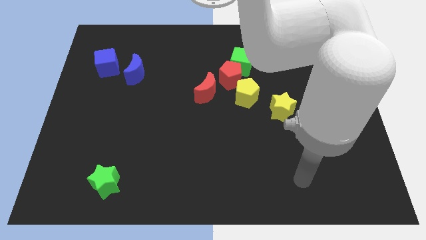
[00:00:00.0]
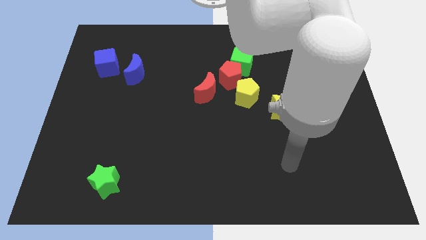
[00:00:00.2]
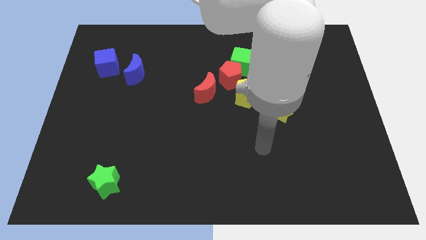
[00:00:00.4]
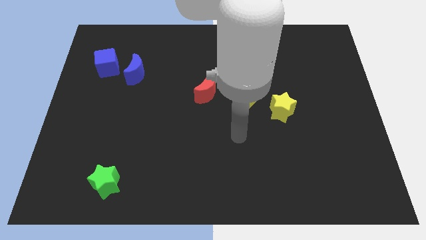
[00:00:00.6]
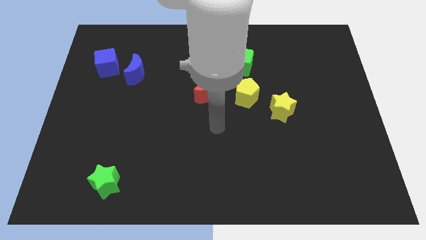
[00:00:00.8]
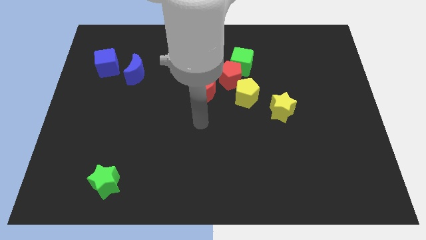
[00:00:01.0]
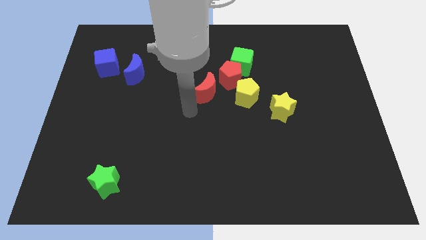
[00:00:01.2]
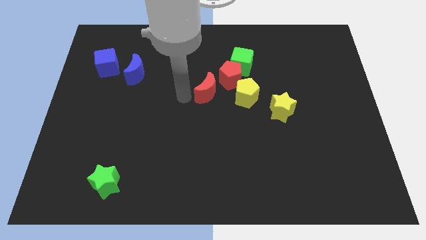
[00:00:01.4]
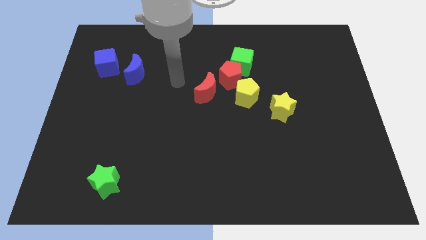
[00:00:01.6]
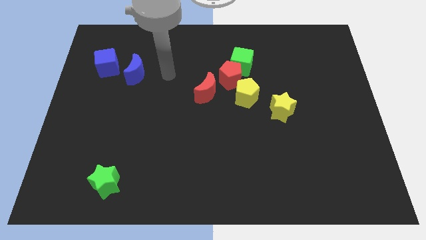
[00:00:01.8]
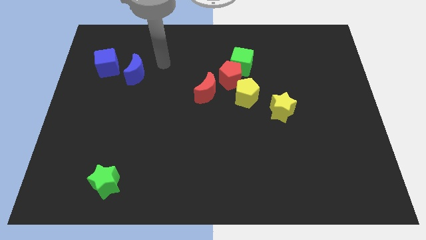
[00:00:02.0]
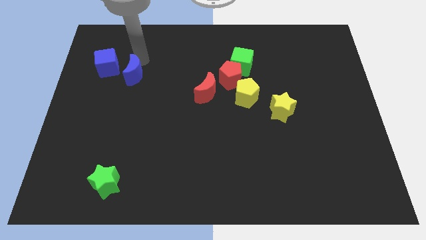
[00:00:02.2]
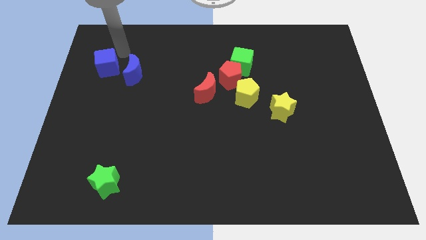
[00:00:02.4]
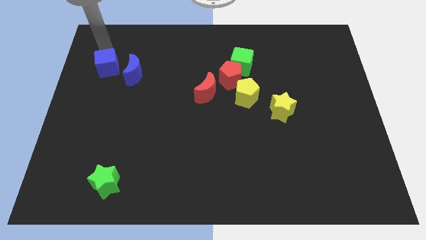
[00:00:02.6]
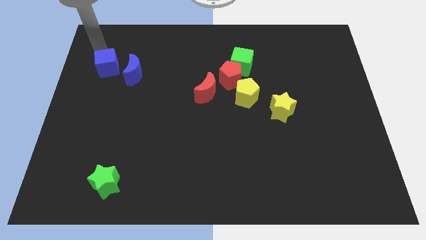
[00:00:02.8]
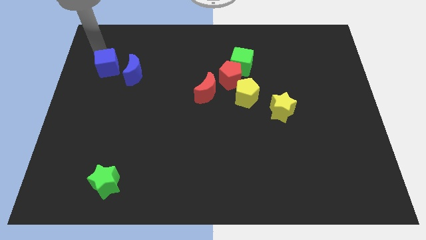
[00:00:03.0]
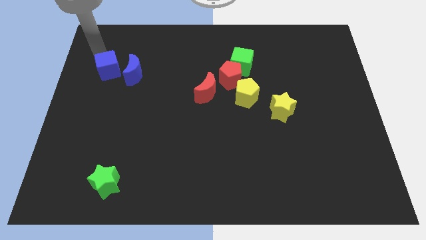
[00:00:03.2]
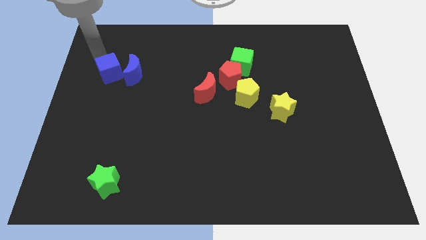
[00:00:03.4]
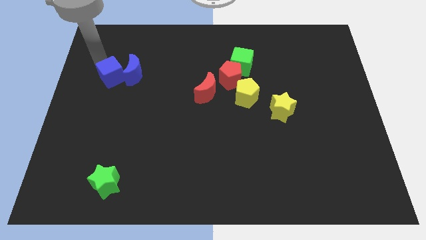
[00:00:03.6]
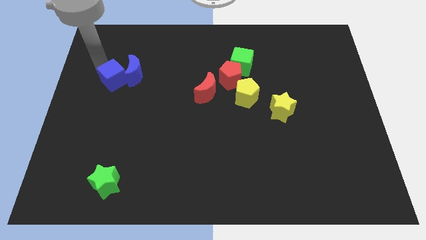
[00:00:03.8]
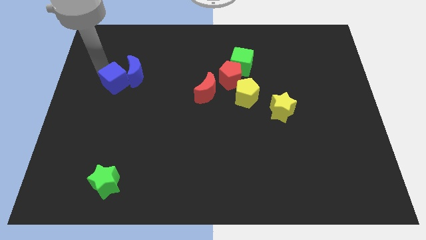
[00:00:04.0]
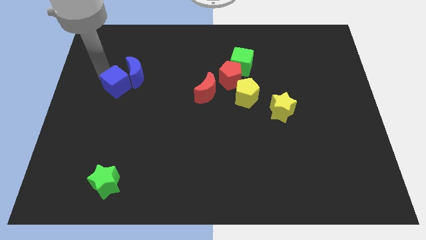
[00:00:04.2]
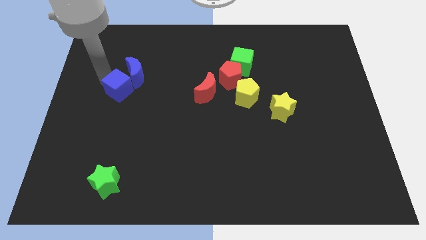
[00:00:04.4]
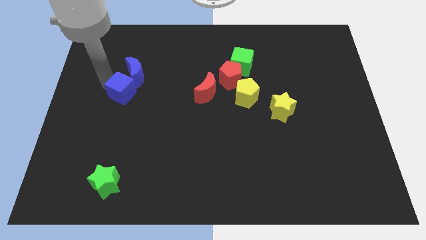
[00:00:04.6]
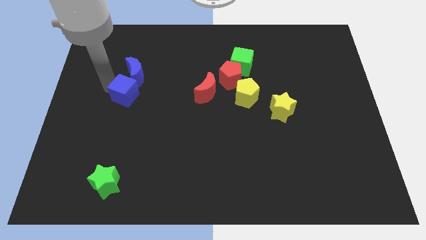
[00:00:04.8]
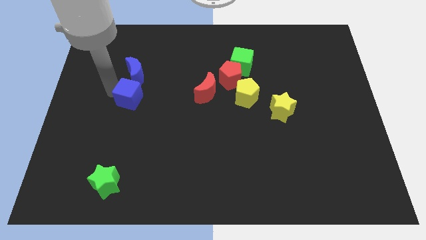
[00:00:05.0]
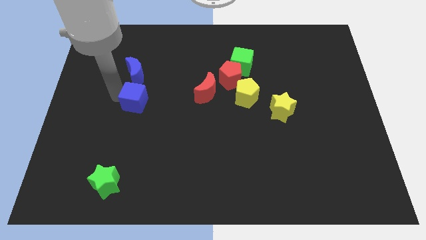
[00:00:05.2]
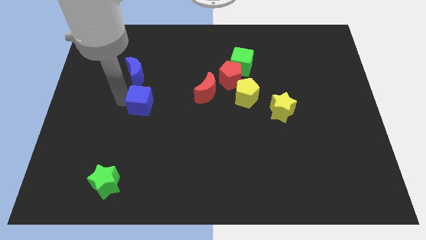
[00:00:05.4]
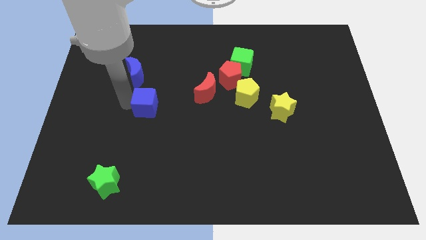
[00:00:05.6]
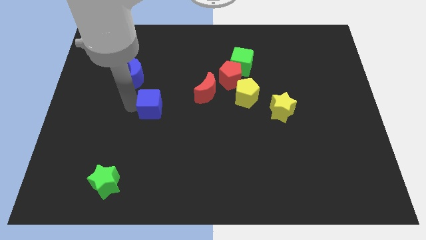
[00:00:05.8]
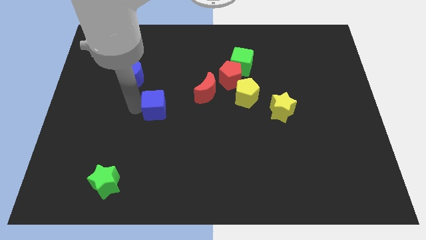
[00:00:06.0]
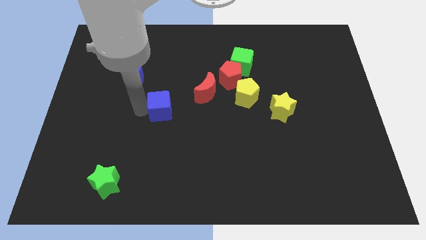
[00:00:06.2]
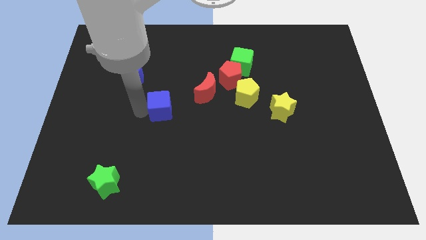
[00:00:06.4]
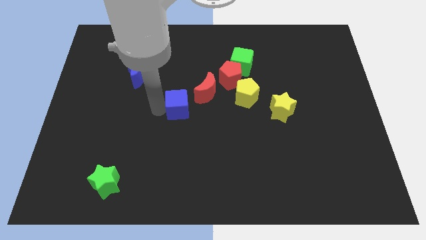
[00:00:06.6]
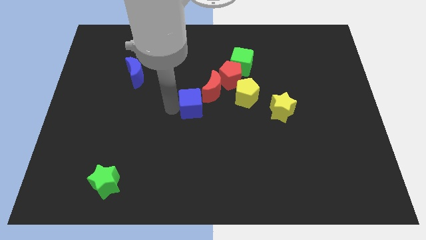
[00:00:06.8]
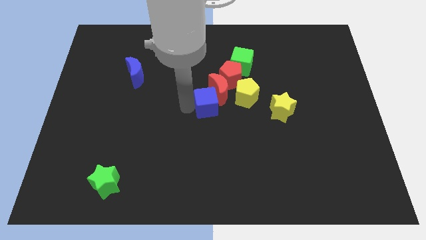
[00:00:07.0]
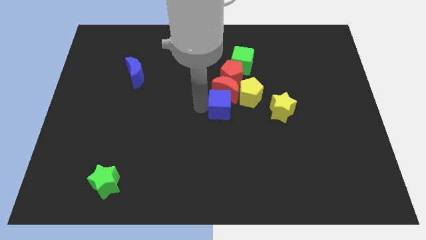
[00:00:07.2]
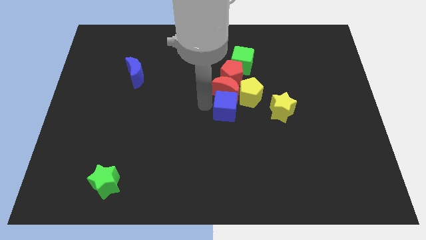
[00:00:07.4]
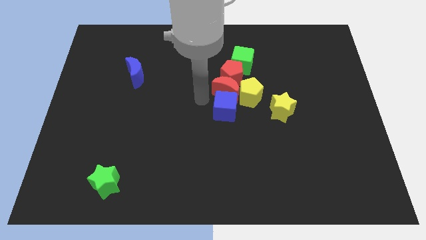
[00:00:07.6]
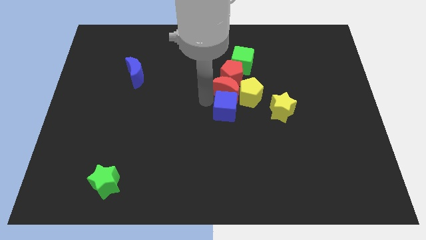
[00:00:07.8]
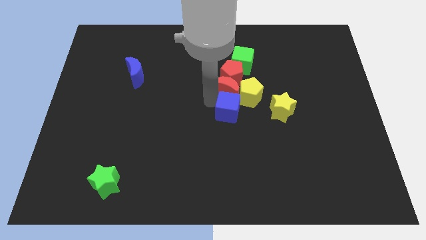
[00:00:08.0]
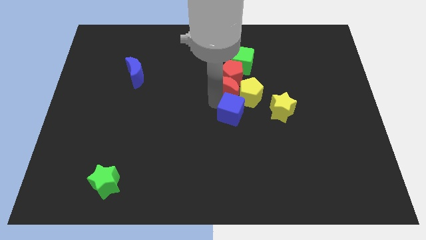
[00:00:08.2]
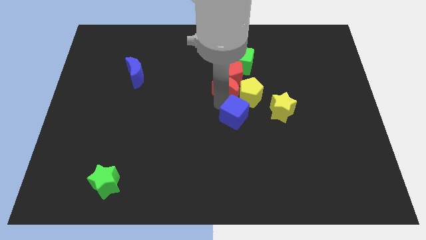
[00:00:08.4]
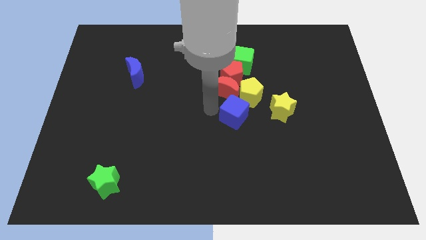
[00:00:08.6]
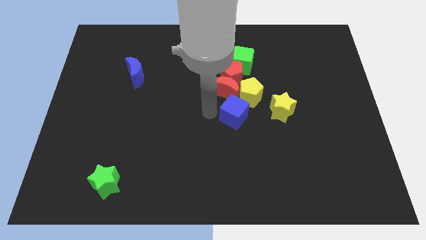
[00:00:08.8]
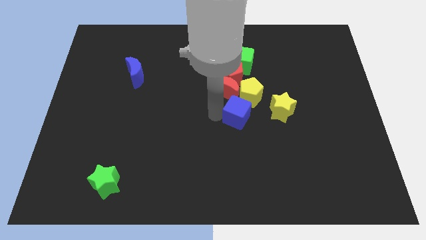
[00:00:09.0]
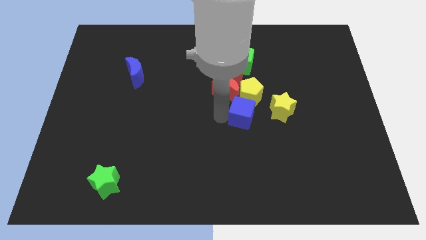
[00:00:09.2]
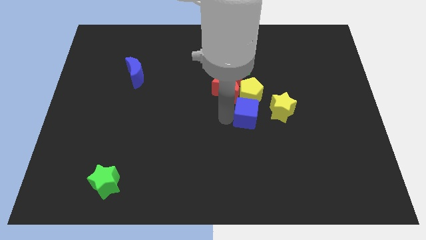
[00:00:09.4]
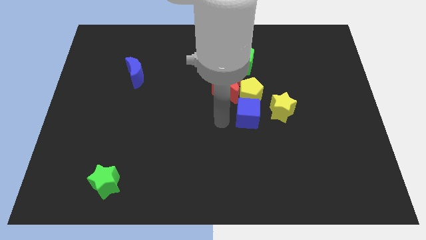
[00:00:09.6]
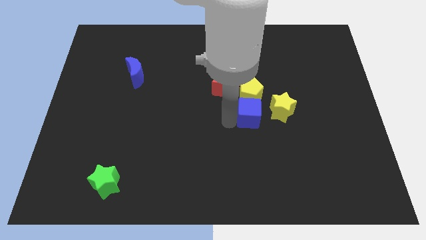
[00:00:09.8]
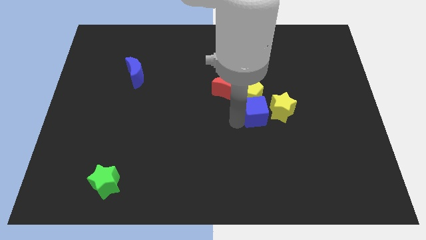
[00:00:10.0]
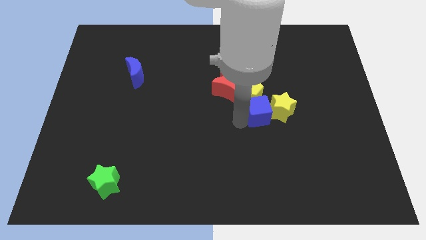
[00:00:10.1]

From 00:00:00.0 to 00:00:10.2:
push the blue cube to the yellow star

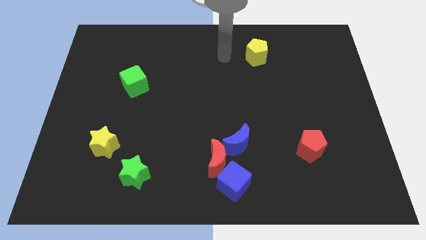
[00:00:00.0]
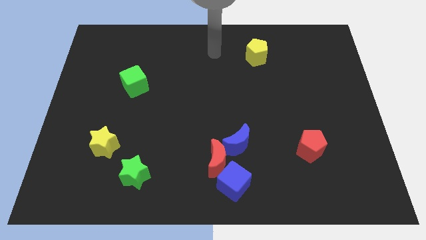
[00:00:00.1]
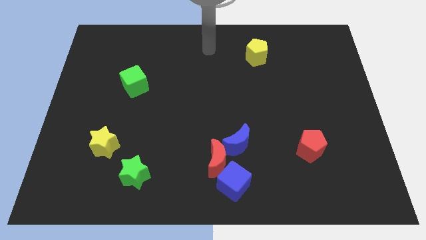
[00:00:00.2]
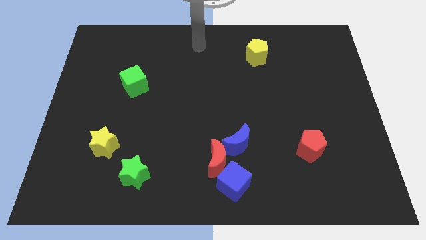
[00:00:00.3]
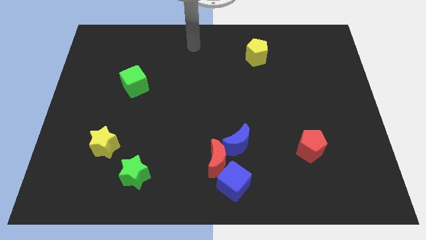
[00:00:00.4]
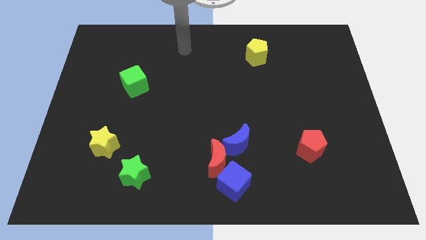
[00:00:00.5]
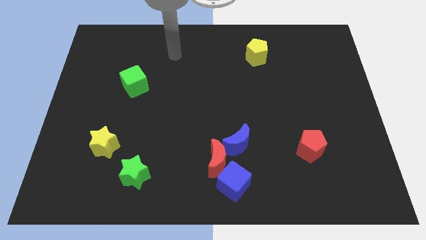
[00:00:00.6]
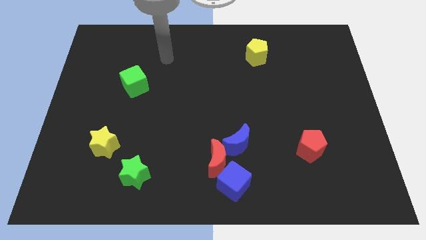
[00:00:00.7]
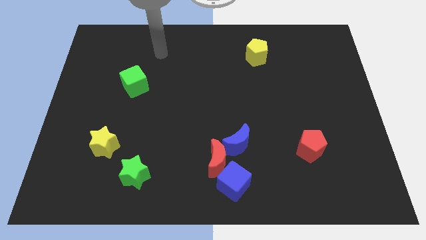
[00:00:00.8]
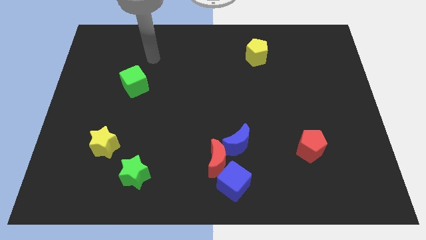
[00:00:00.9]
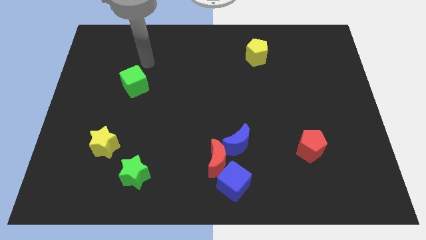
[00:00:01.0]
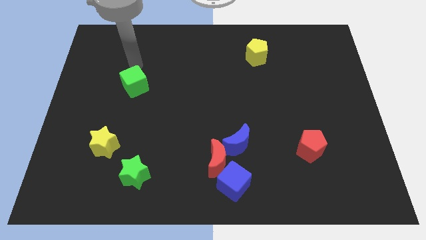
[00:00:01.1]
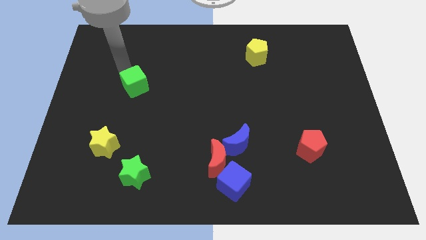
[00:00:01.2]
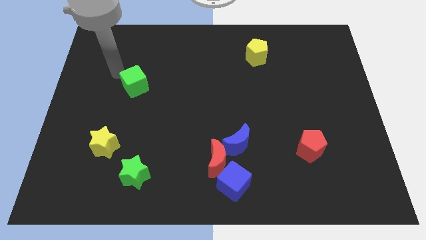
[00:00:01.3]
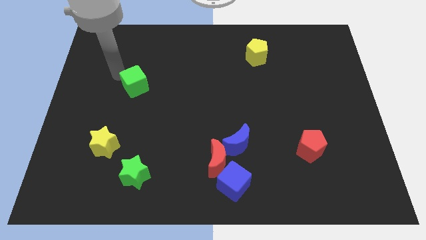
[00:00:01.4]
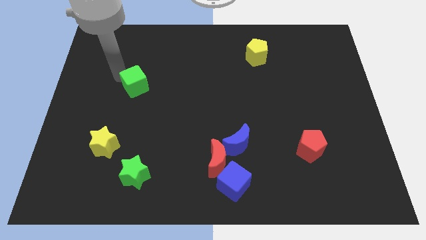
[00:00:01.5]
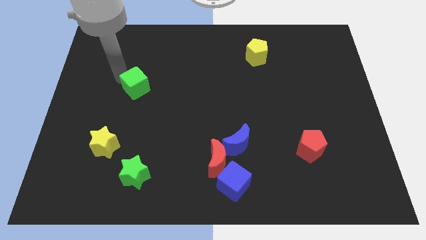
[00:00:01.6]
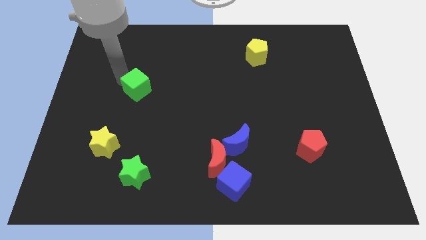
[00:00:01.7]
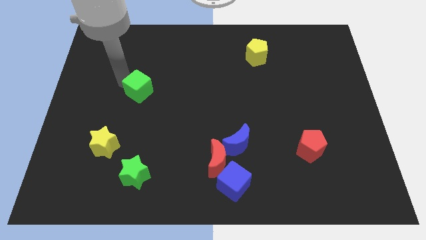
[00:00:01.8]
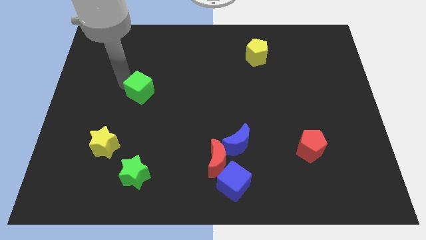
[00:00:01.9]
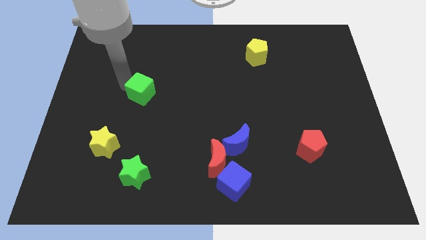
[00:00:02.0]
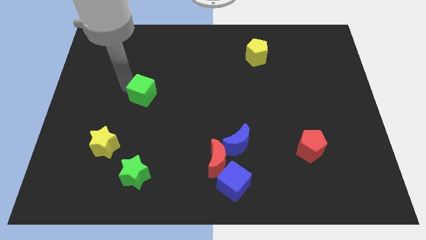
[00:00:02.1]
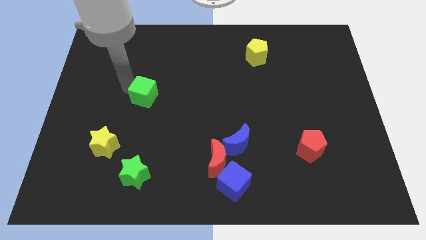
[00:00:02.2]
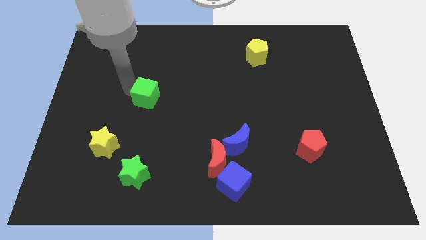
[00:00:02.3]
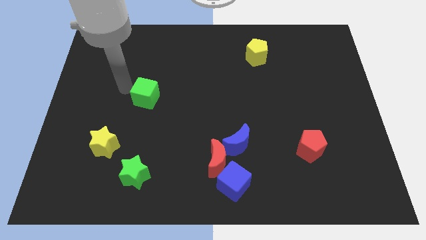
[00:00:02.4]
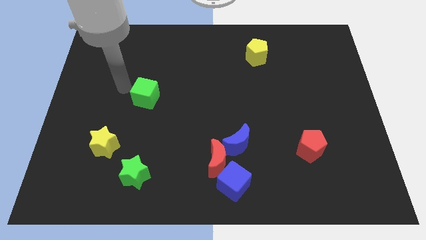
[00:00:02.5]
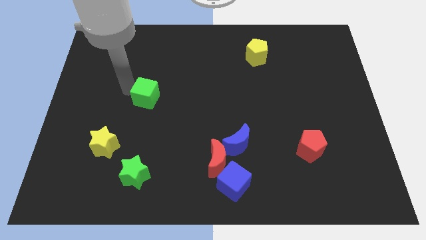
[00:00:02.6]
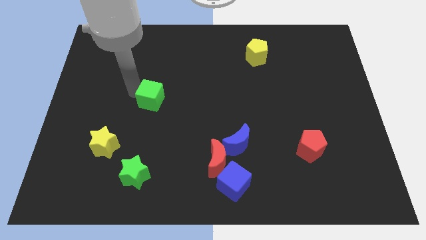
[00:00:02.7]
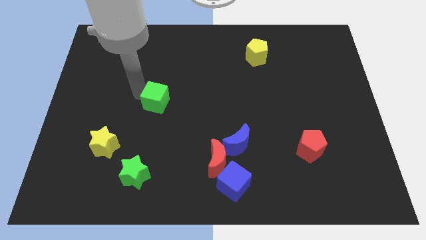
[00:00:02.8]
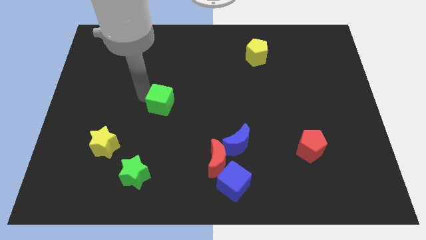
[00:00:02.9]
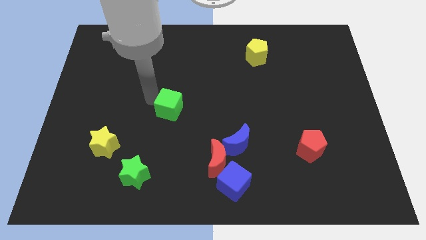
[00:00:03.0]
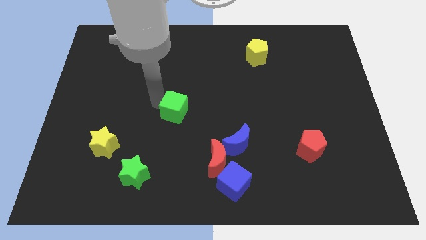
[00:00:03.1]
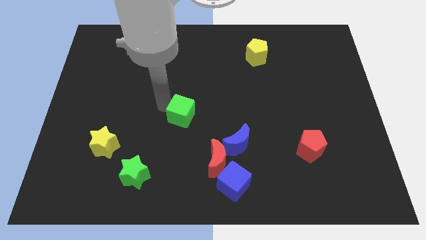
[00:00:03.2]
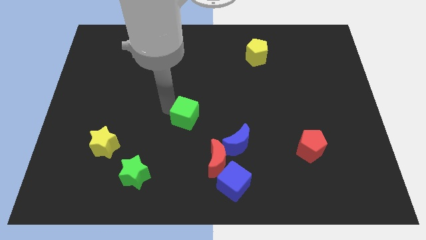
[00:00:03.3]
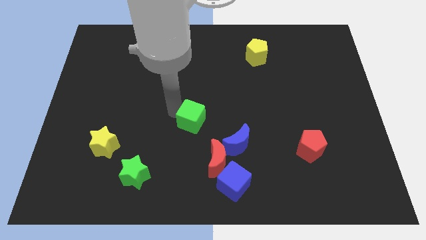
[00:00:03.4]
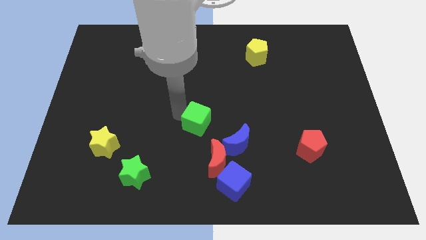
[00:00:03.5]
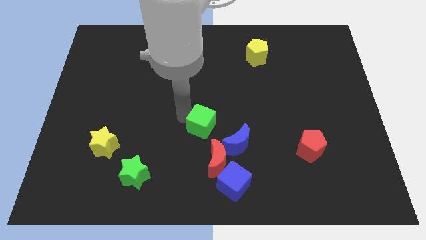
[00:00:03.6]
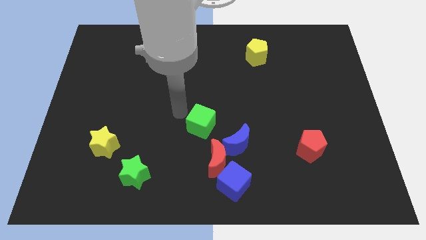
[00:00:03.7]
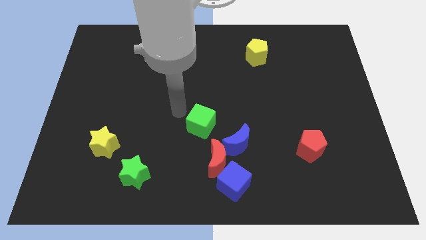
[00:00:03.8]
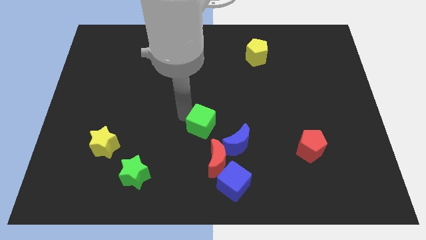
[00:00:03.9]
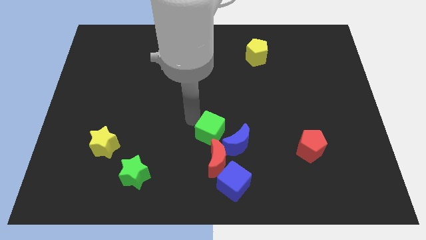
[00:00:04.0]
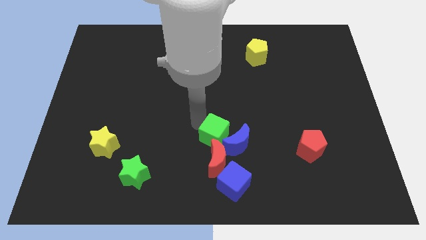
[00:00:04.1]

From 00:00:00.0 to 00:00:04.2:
move the green cube to the blue moon
